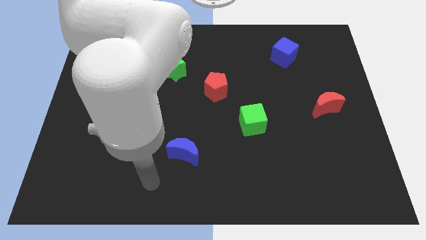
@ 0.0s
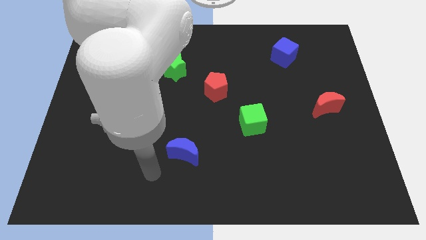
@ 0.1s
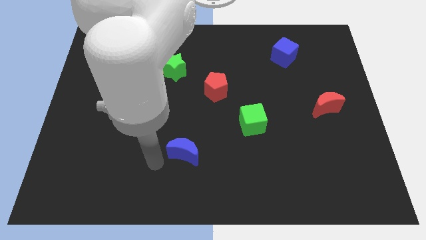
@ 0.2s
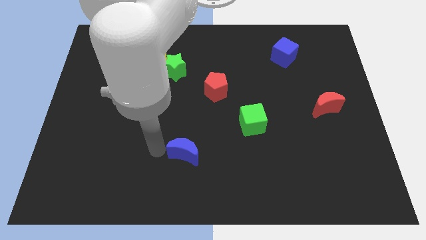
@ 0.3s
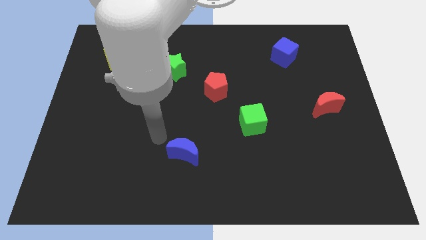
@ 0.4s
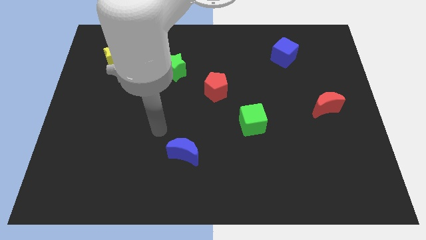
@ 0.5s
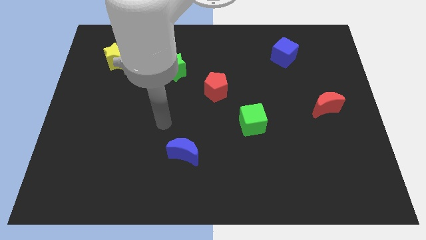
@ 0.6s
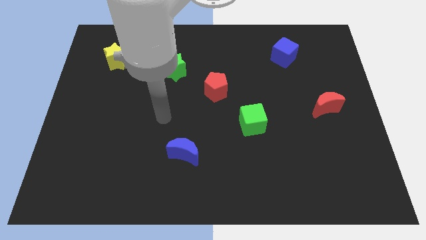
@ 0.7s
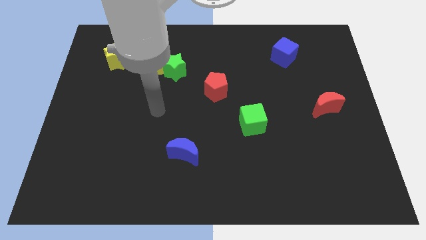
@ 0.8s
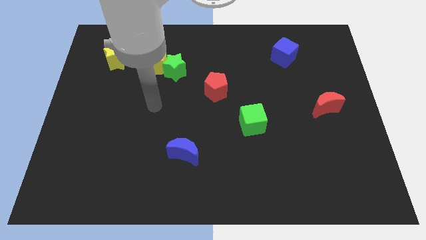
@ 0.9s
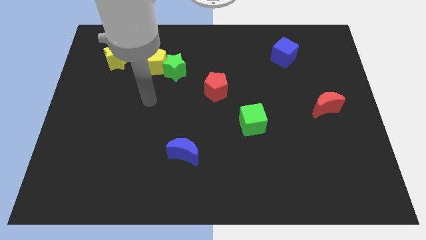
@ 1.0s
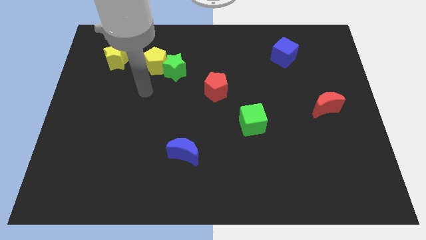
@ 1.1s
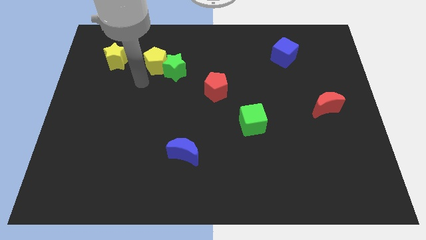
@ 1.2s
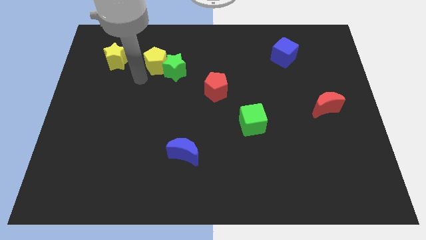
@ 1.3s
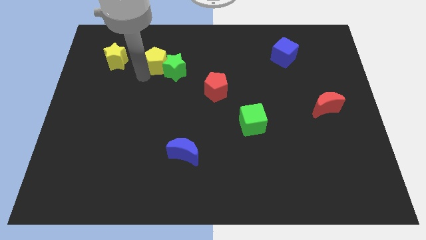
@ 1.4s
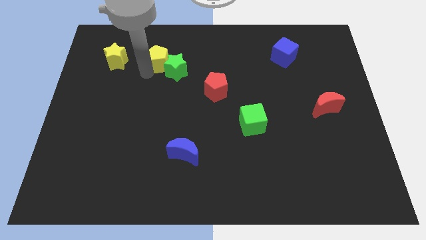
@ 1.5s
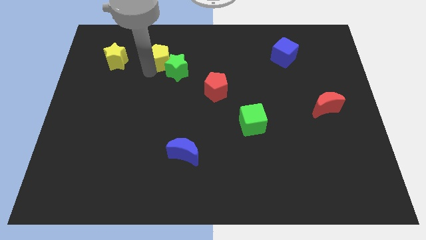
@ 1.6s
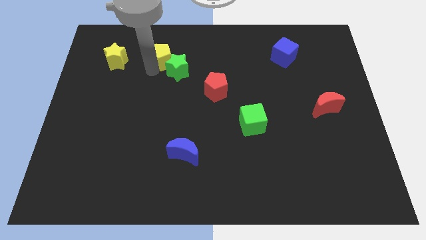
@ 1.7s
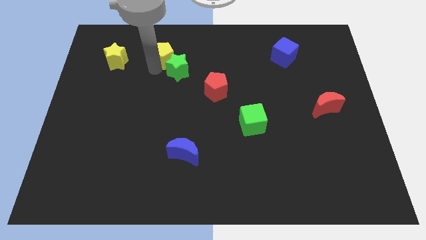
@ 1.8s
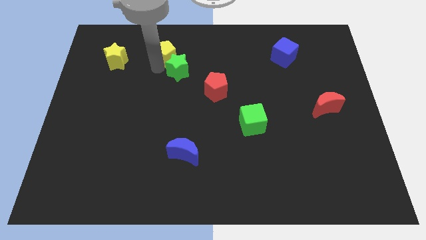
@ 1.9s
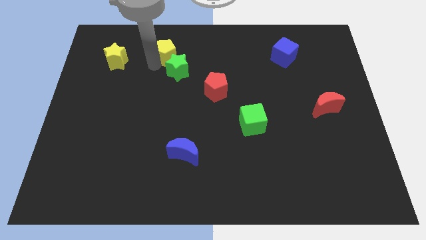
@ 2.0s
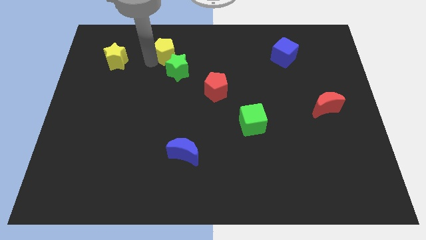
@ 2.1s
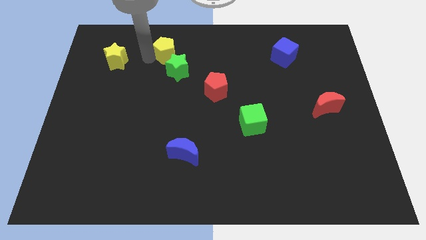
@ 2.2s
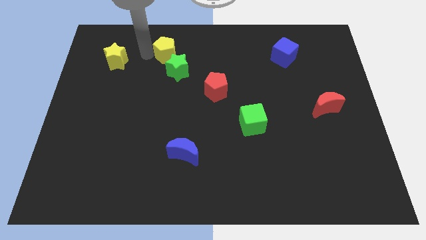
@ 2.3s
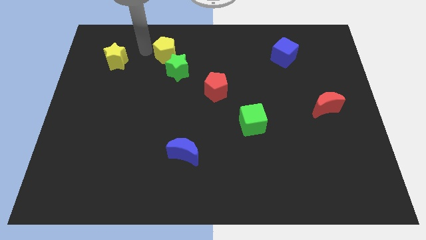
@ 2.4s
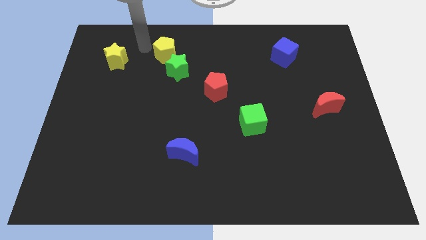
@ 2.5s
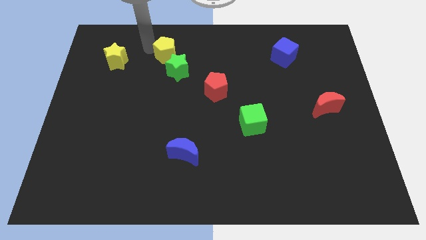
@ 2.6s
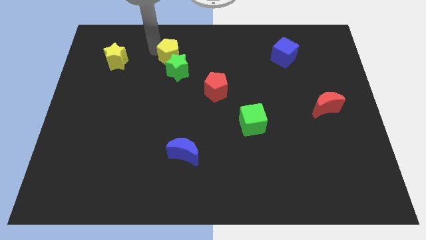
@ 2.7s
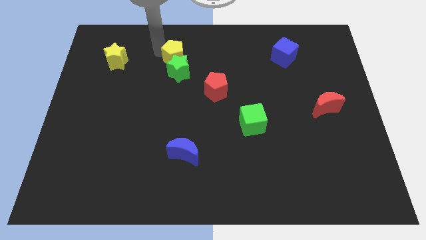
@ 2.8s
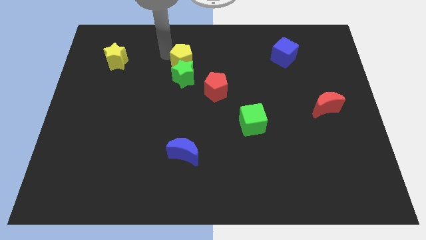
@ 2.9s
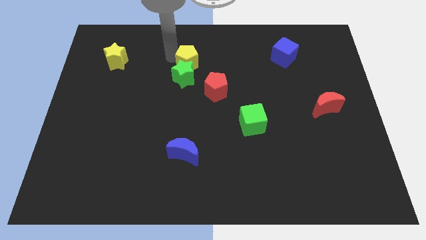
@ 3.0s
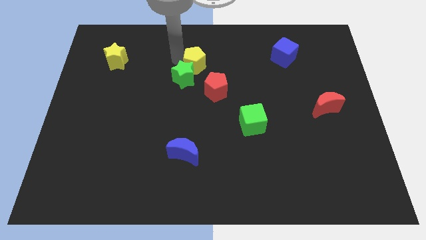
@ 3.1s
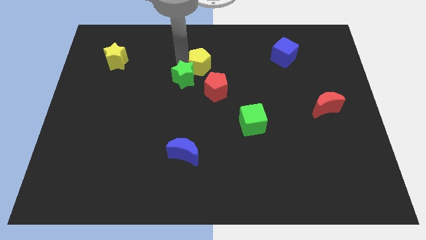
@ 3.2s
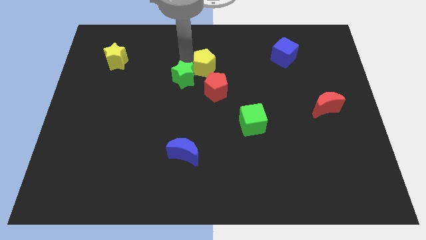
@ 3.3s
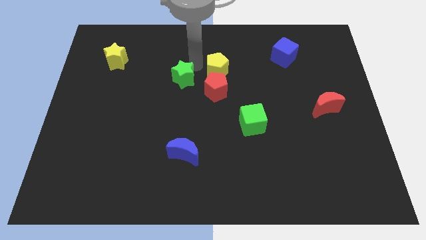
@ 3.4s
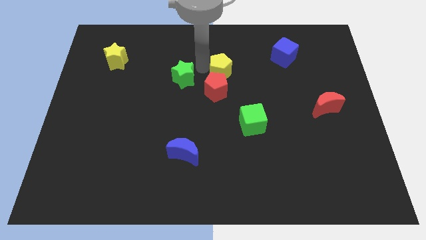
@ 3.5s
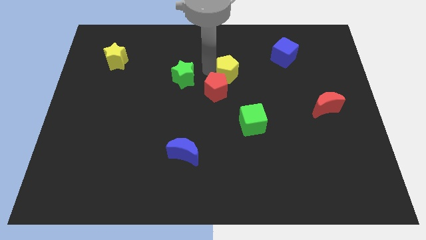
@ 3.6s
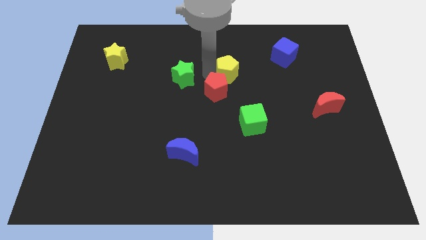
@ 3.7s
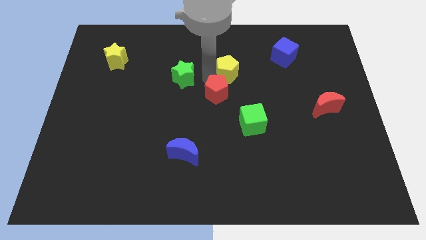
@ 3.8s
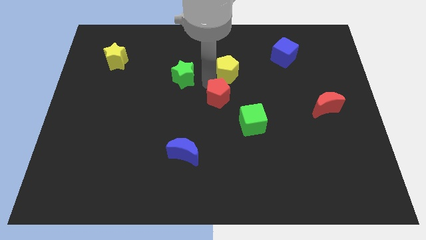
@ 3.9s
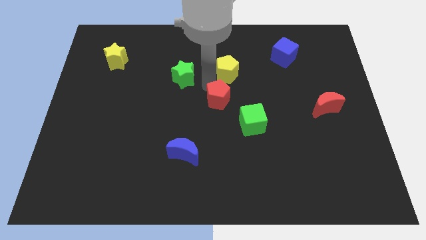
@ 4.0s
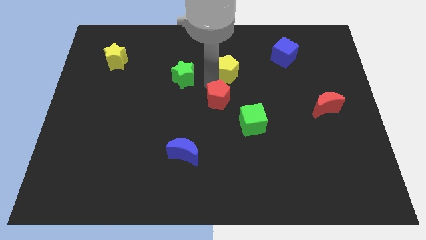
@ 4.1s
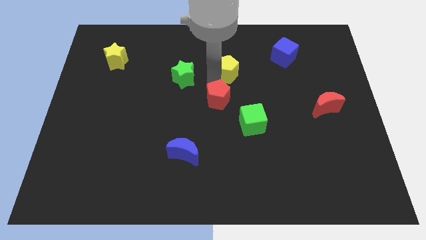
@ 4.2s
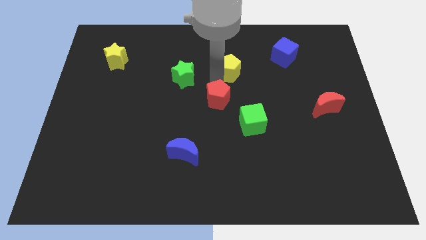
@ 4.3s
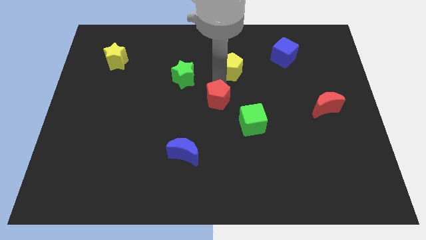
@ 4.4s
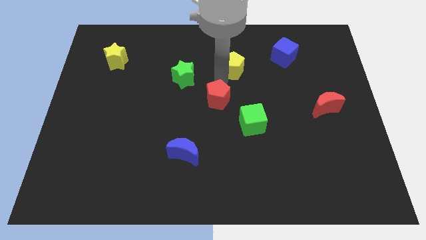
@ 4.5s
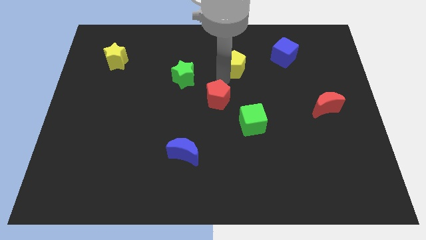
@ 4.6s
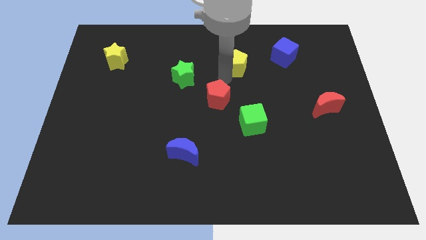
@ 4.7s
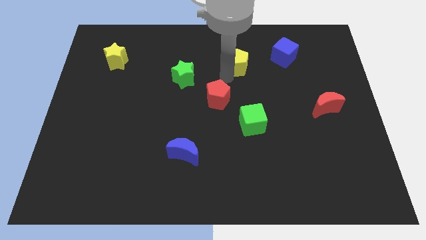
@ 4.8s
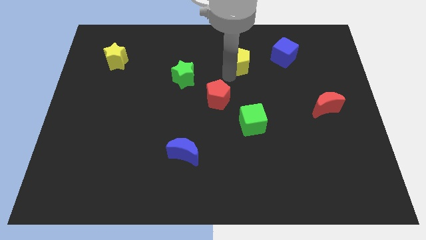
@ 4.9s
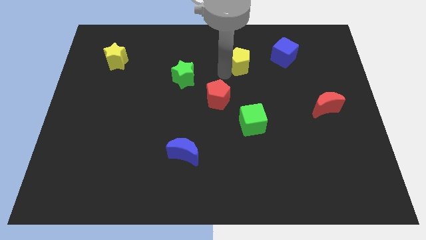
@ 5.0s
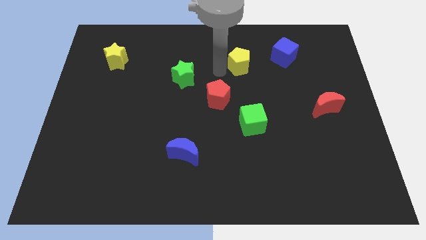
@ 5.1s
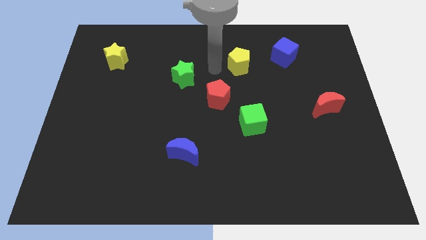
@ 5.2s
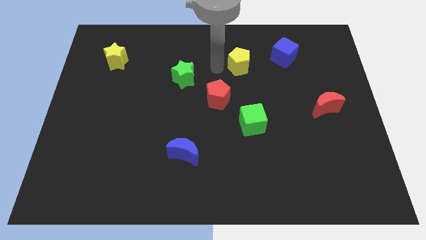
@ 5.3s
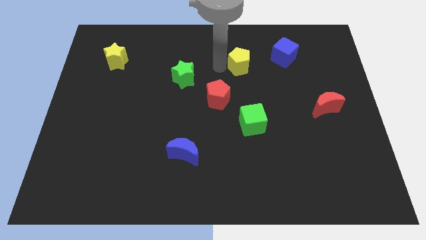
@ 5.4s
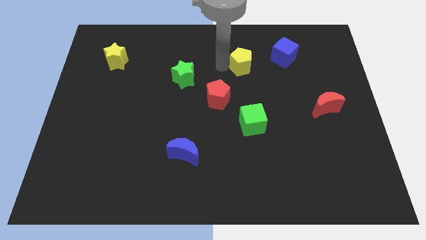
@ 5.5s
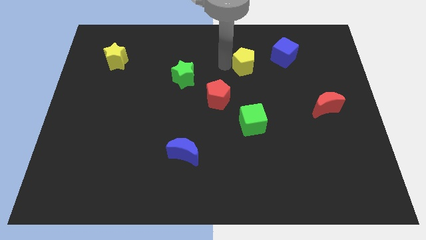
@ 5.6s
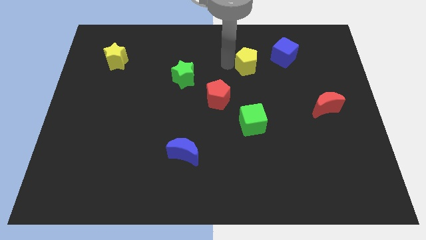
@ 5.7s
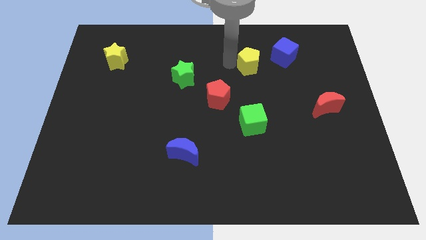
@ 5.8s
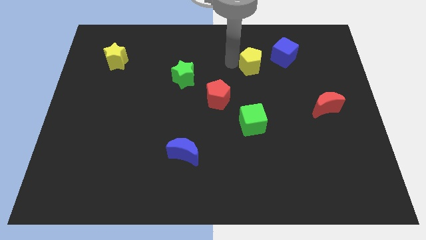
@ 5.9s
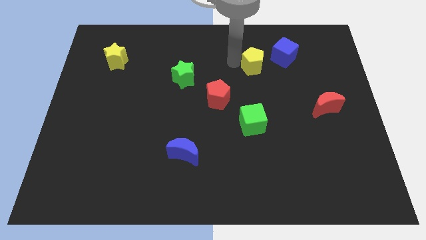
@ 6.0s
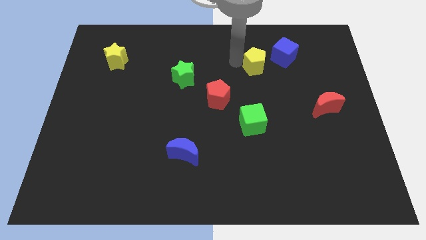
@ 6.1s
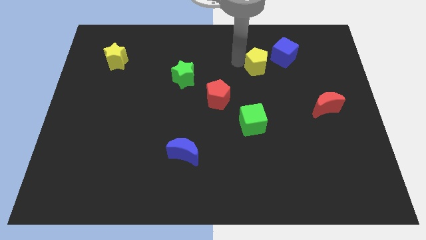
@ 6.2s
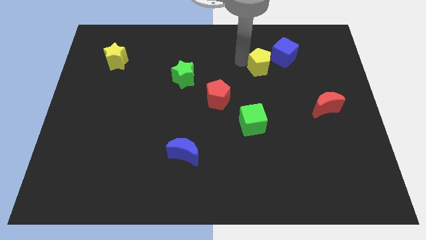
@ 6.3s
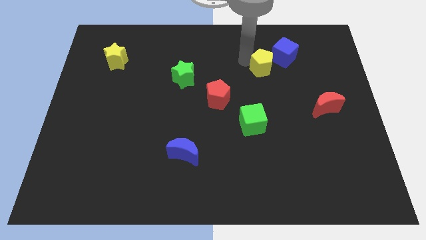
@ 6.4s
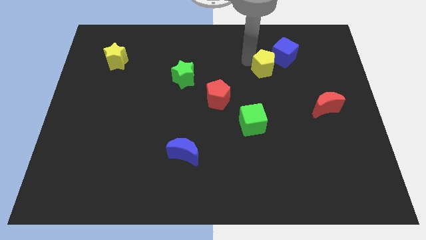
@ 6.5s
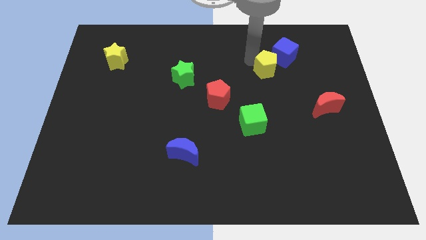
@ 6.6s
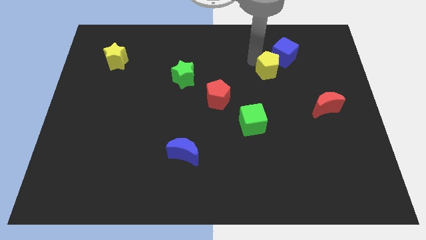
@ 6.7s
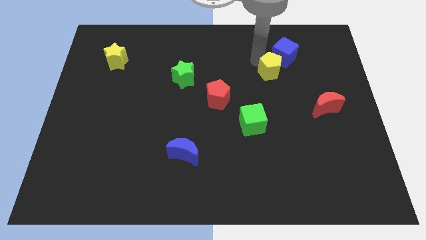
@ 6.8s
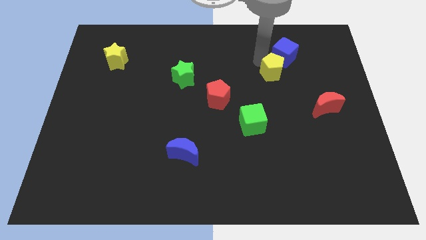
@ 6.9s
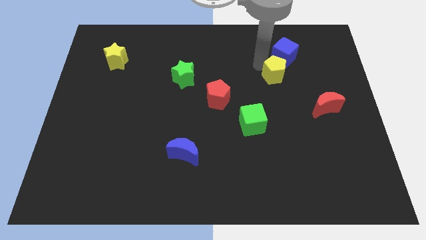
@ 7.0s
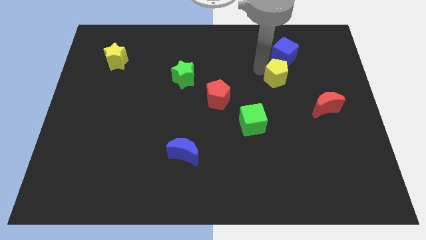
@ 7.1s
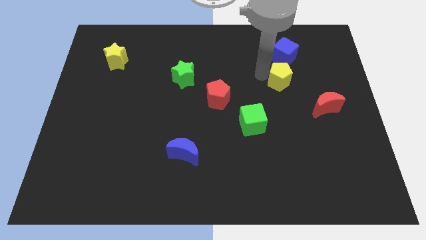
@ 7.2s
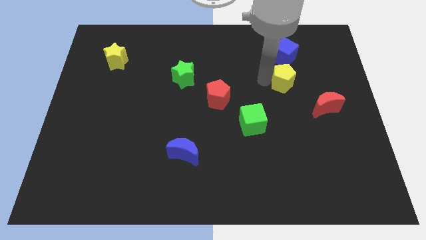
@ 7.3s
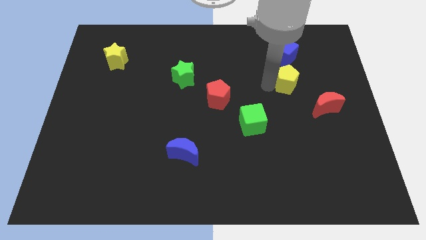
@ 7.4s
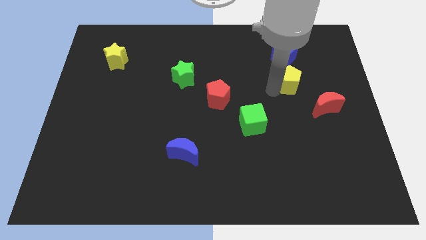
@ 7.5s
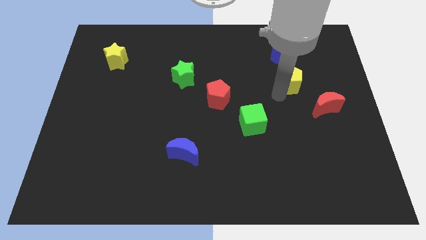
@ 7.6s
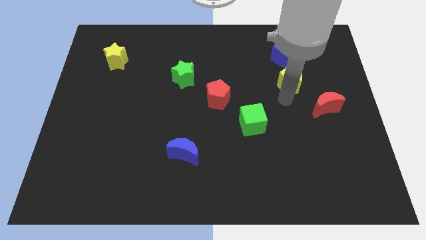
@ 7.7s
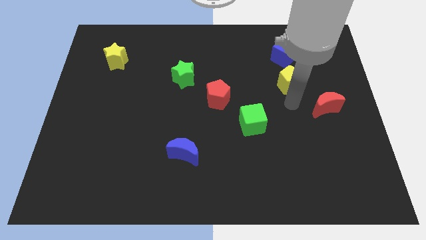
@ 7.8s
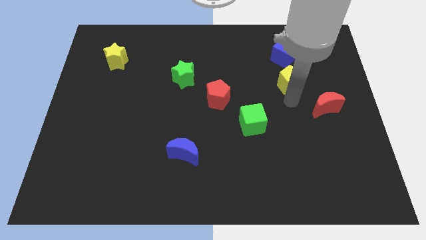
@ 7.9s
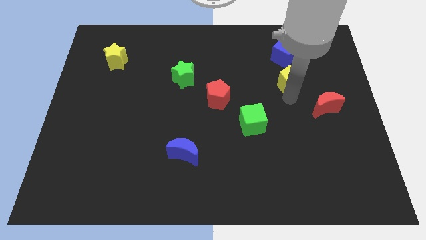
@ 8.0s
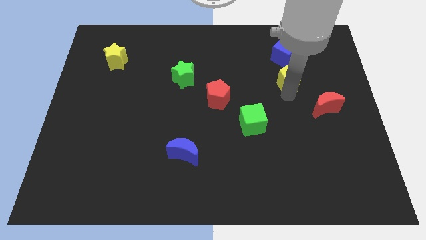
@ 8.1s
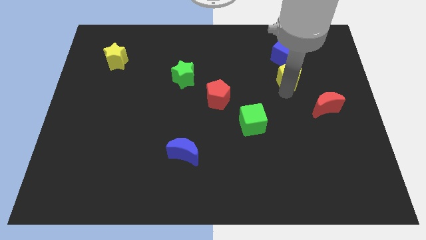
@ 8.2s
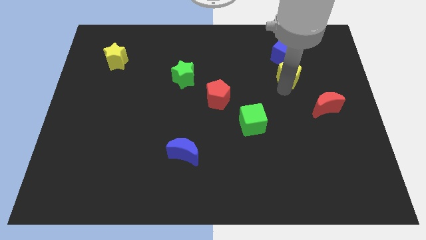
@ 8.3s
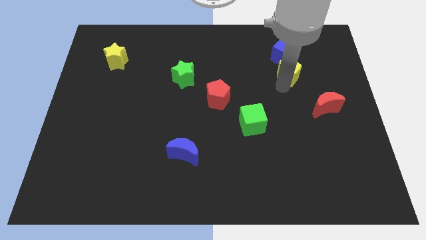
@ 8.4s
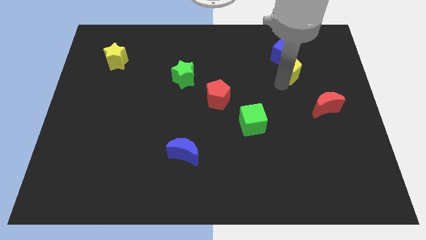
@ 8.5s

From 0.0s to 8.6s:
slide the yellow pentagon to the blue cube

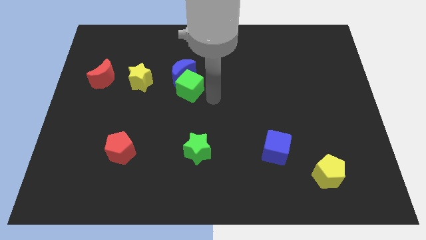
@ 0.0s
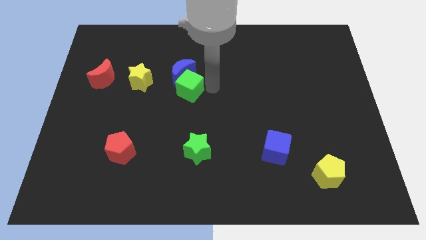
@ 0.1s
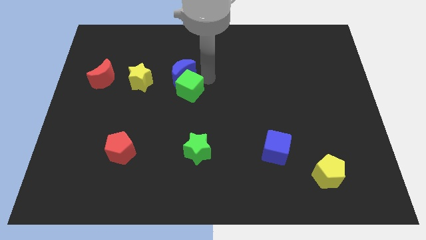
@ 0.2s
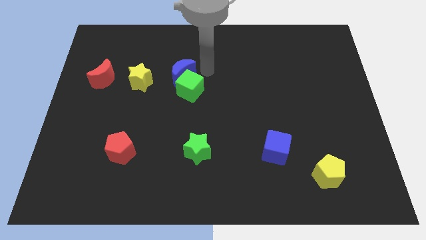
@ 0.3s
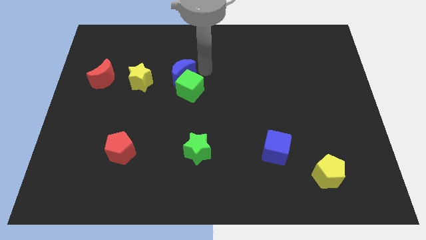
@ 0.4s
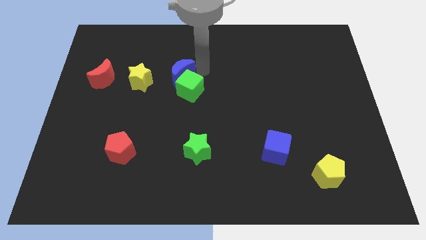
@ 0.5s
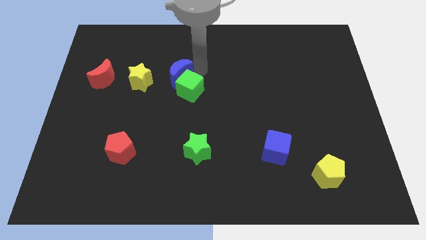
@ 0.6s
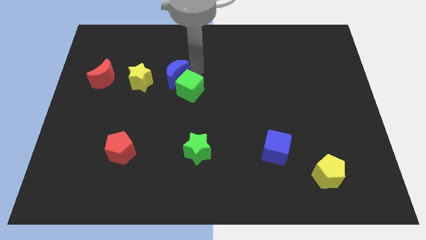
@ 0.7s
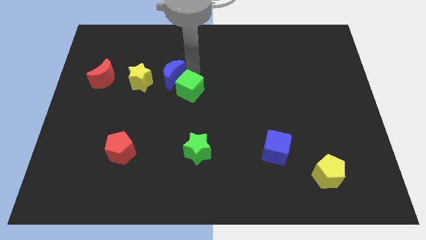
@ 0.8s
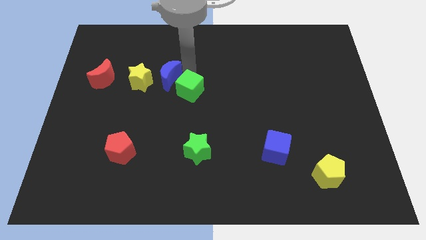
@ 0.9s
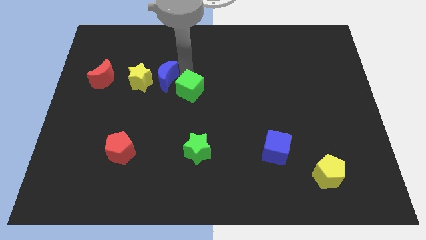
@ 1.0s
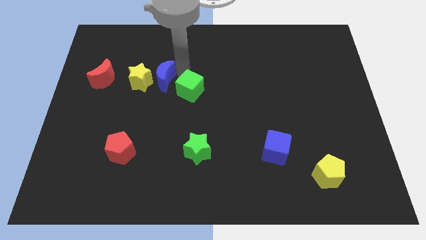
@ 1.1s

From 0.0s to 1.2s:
slide the blue moon towards the yellow star
